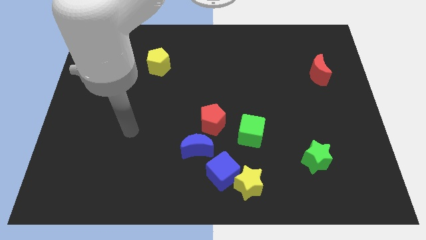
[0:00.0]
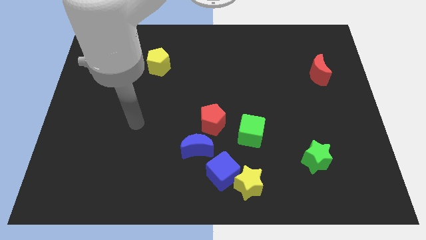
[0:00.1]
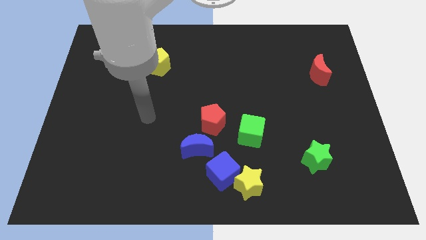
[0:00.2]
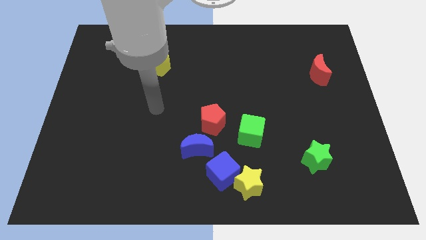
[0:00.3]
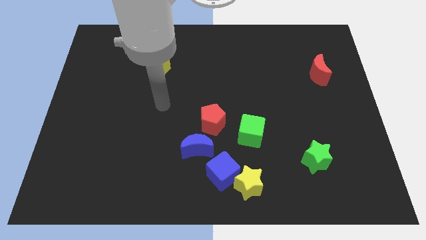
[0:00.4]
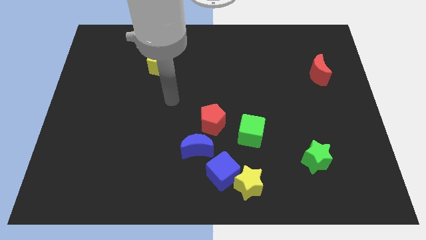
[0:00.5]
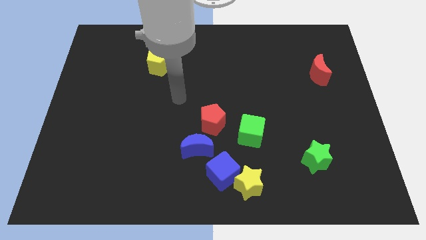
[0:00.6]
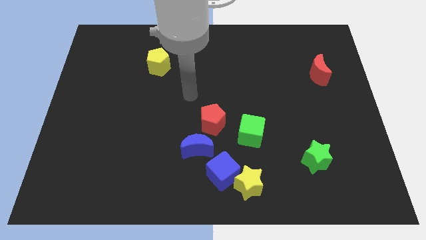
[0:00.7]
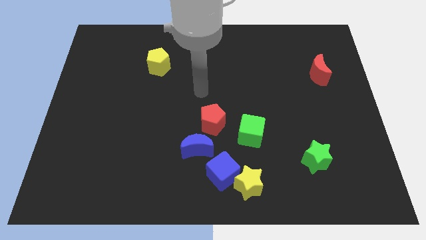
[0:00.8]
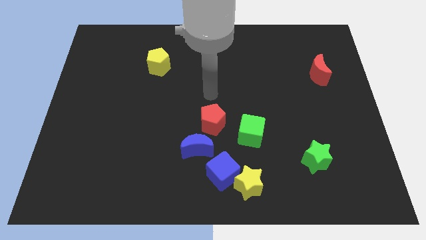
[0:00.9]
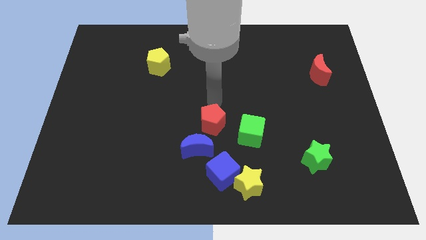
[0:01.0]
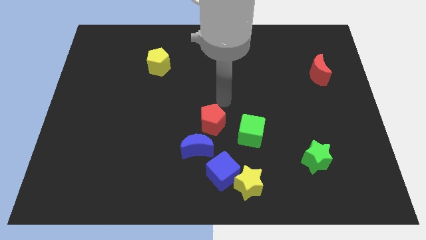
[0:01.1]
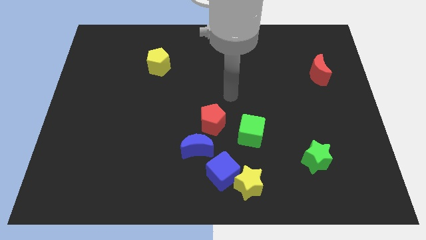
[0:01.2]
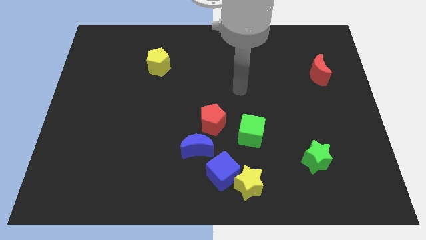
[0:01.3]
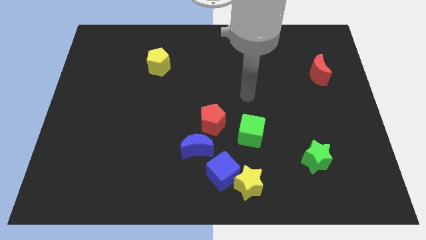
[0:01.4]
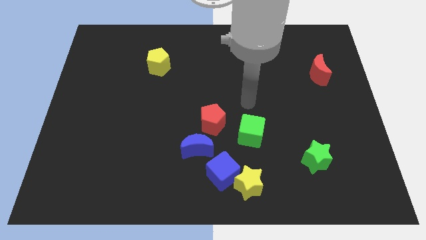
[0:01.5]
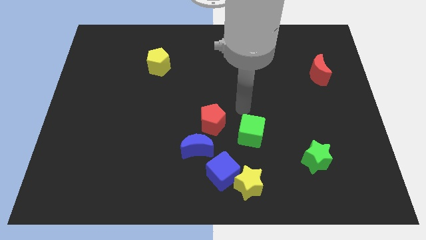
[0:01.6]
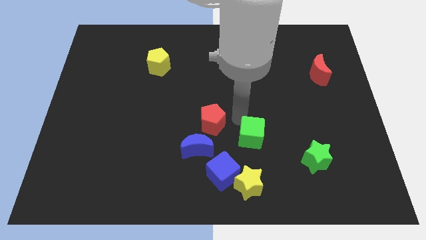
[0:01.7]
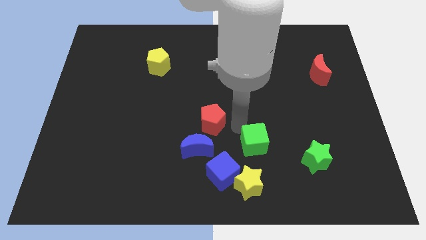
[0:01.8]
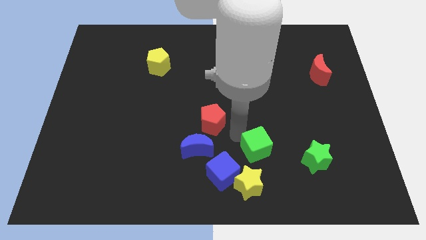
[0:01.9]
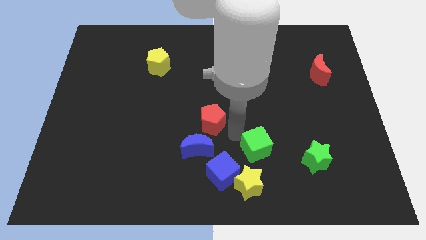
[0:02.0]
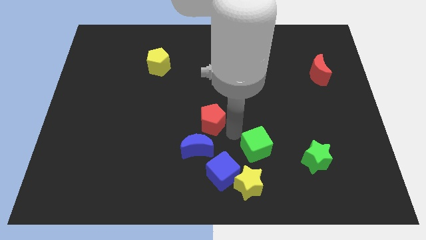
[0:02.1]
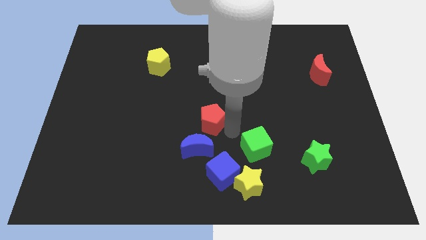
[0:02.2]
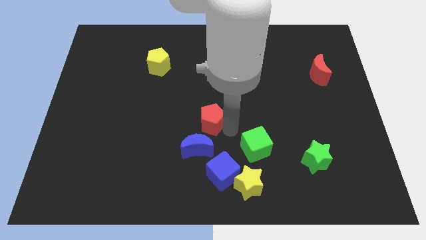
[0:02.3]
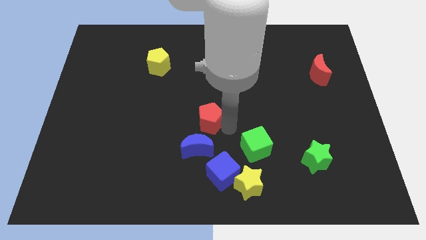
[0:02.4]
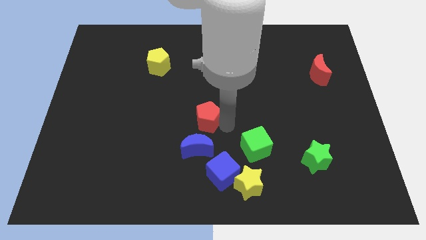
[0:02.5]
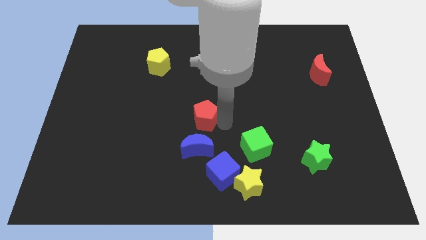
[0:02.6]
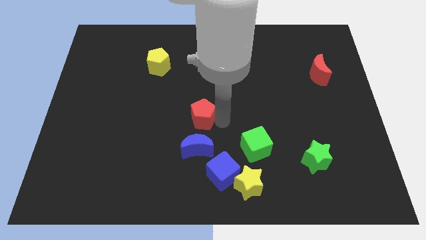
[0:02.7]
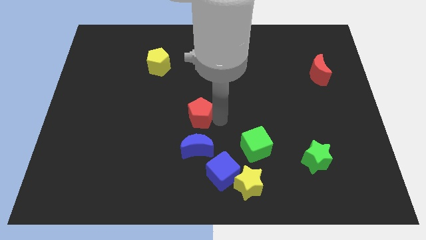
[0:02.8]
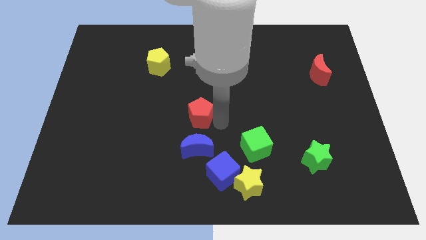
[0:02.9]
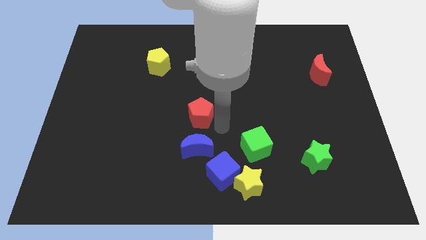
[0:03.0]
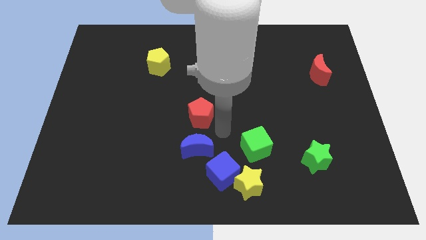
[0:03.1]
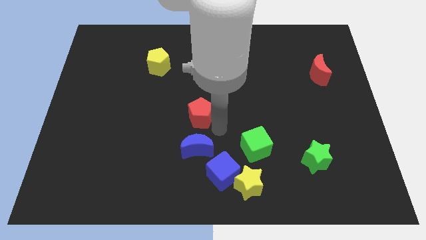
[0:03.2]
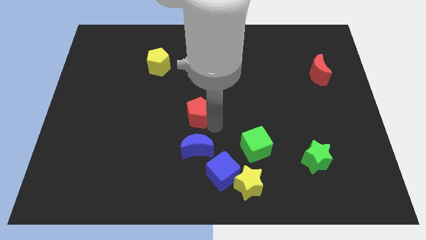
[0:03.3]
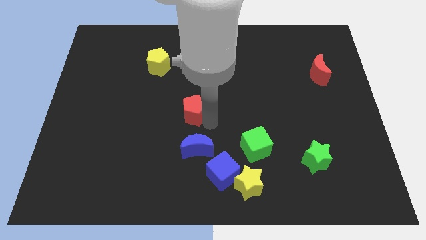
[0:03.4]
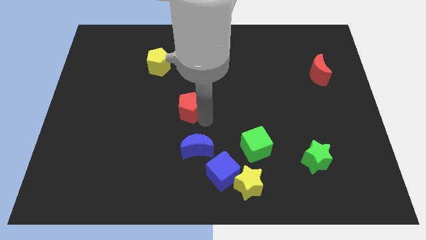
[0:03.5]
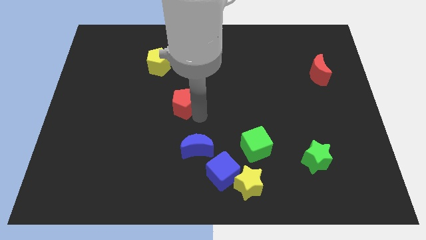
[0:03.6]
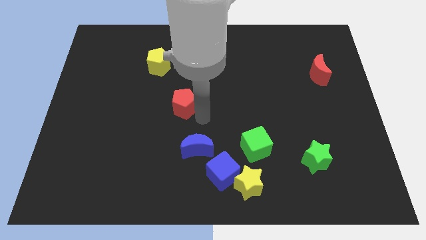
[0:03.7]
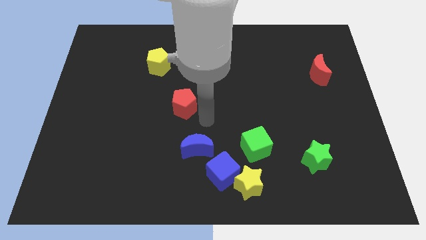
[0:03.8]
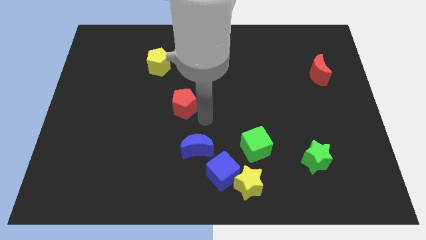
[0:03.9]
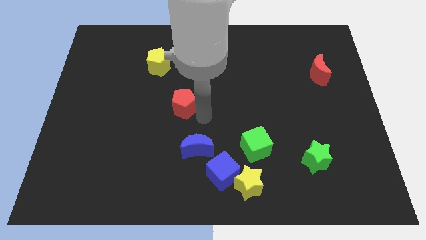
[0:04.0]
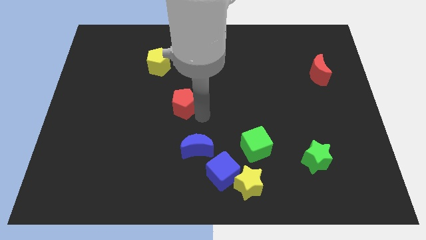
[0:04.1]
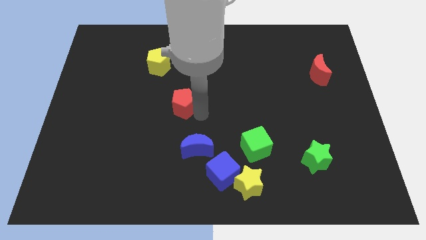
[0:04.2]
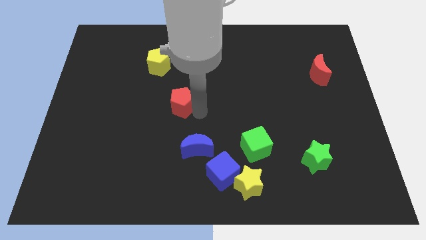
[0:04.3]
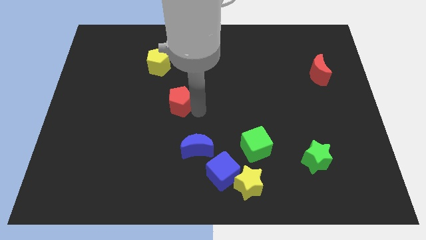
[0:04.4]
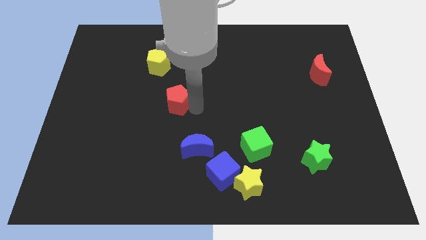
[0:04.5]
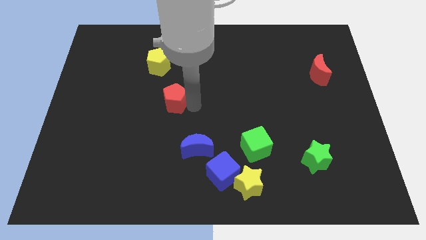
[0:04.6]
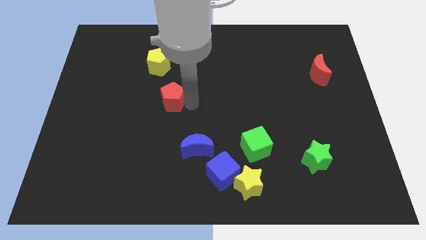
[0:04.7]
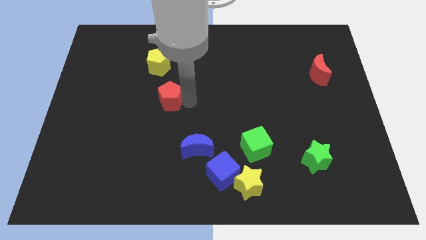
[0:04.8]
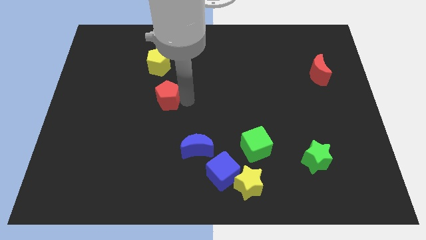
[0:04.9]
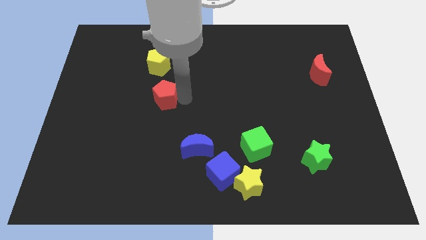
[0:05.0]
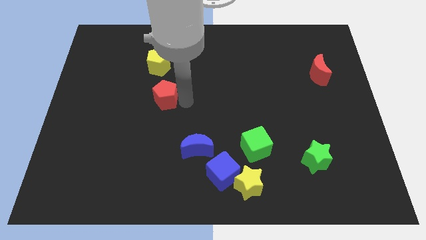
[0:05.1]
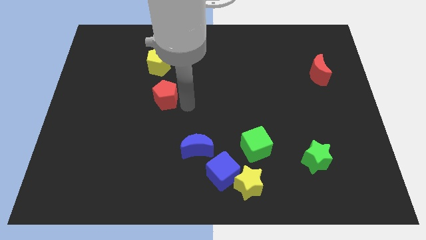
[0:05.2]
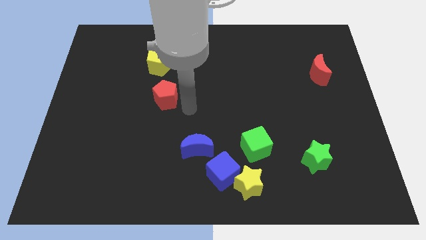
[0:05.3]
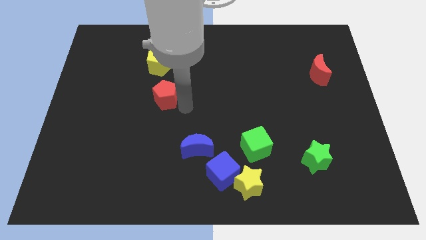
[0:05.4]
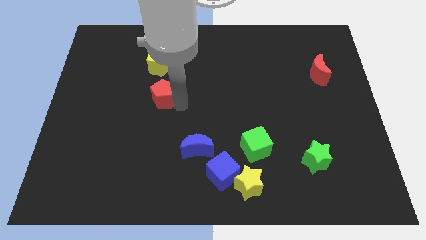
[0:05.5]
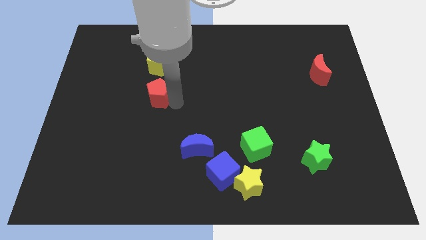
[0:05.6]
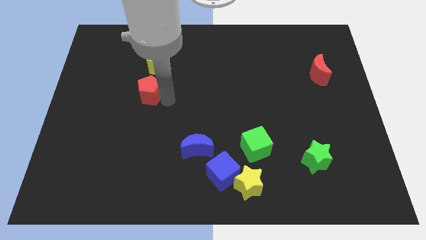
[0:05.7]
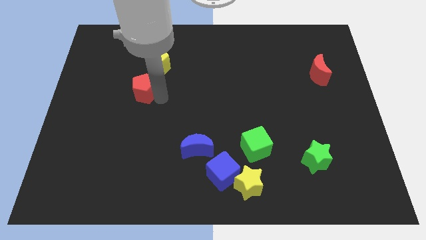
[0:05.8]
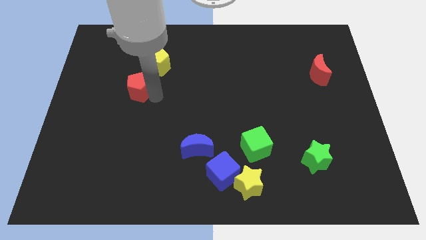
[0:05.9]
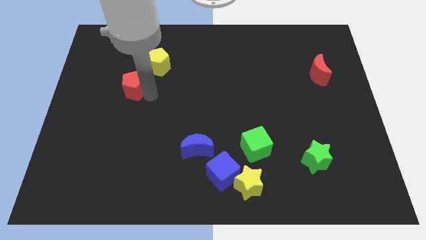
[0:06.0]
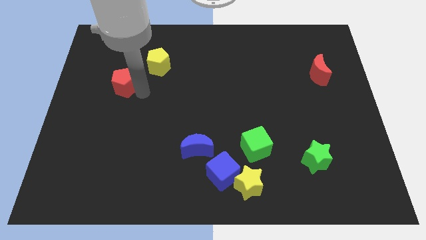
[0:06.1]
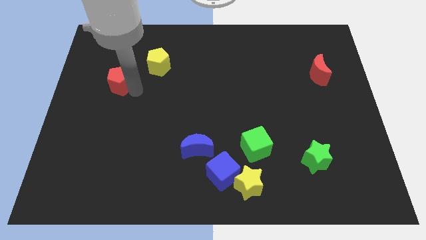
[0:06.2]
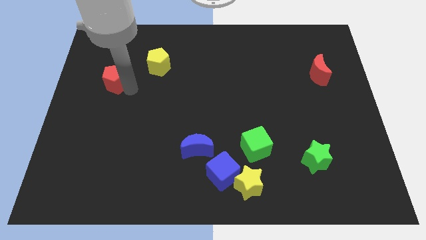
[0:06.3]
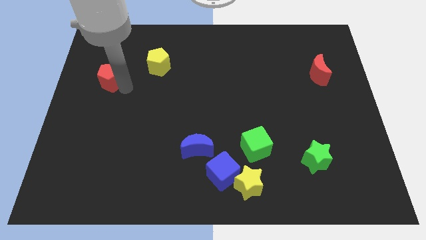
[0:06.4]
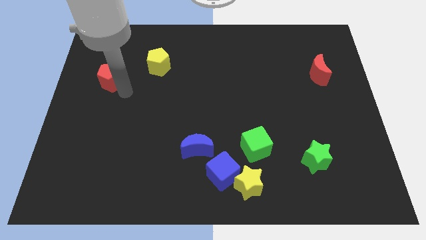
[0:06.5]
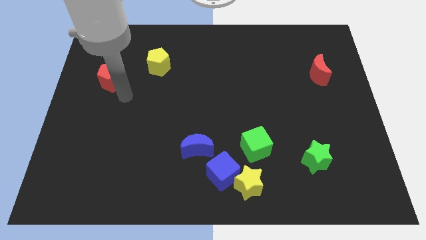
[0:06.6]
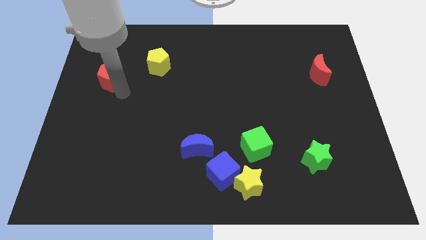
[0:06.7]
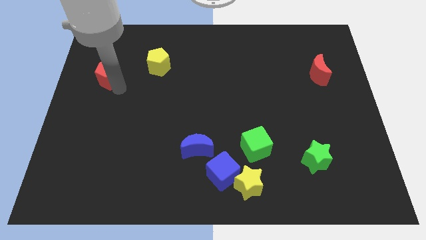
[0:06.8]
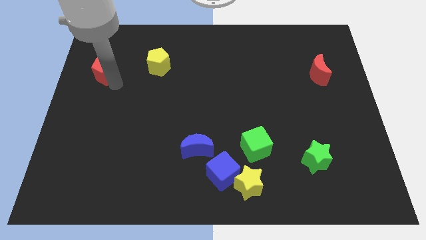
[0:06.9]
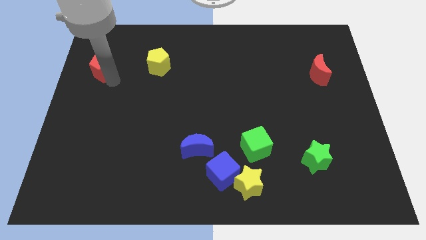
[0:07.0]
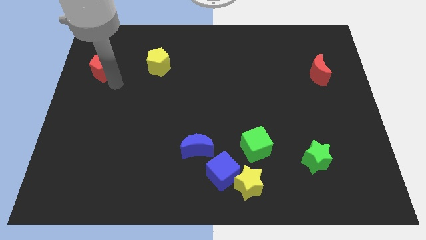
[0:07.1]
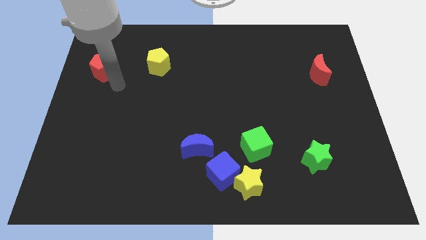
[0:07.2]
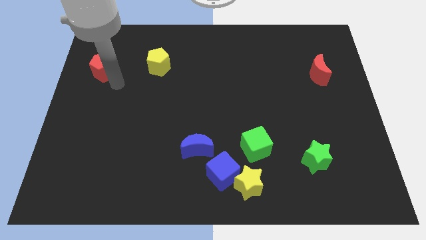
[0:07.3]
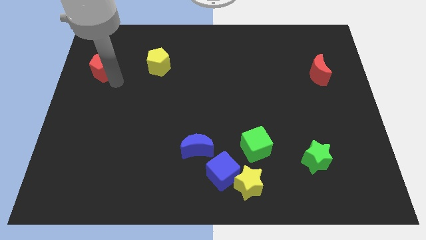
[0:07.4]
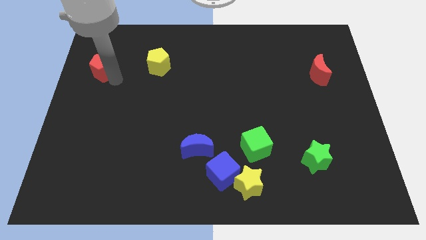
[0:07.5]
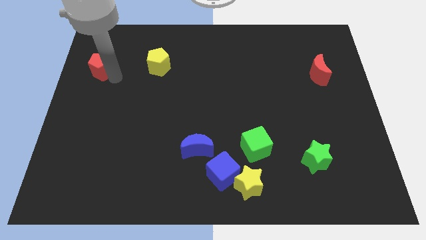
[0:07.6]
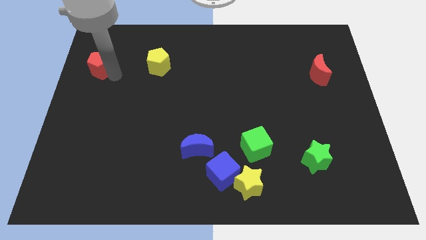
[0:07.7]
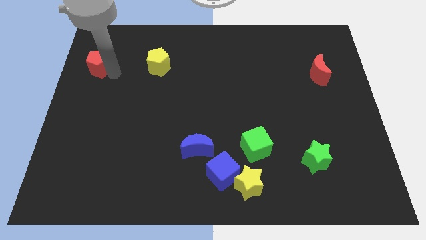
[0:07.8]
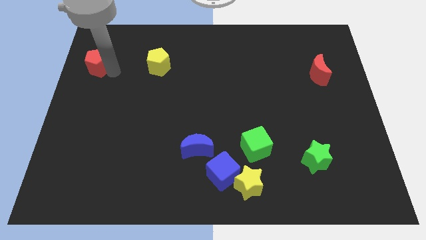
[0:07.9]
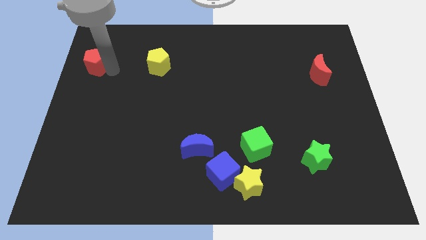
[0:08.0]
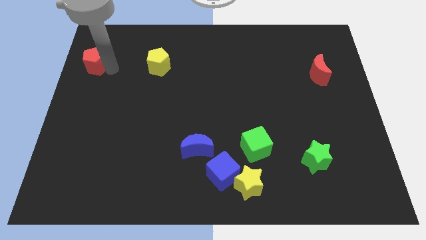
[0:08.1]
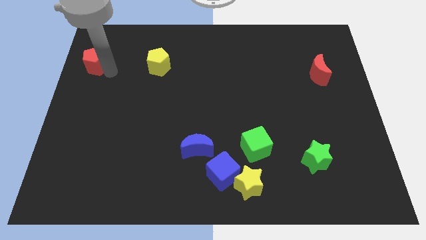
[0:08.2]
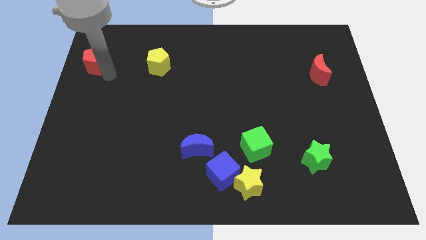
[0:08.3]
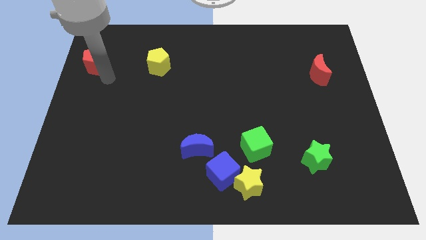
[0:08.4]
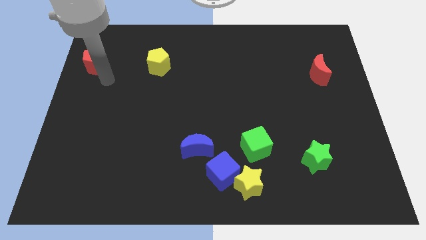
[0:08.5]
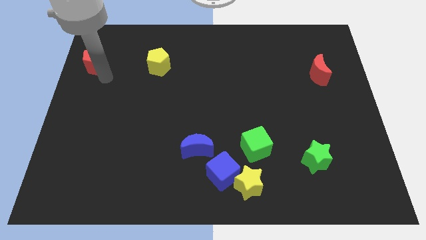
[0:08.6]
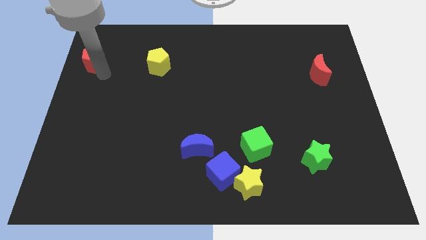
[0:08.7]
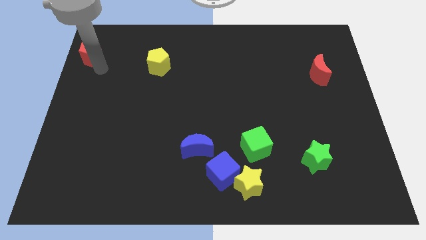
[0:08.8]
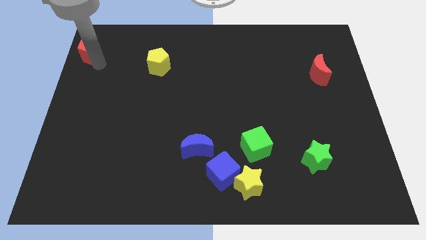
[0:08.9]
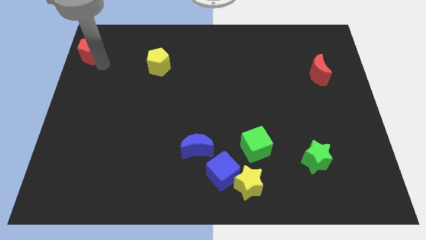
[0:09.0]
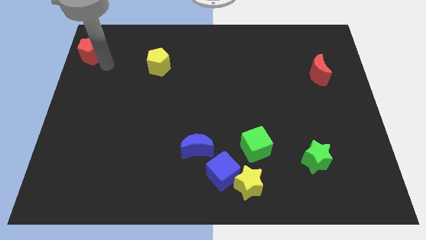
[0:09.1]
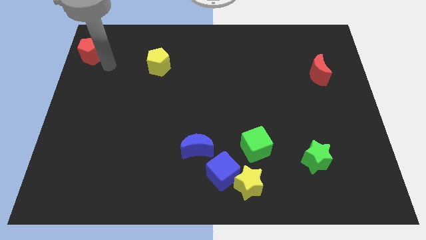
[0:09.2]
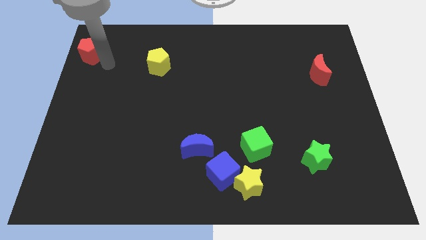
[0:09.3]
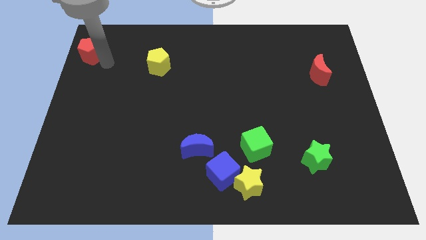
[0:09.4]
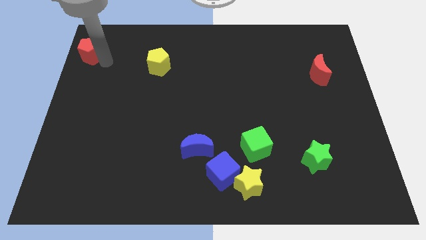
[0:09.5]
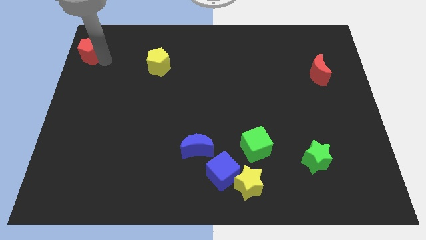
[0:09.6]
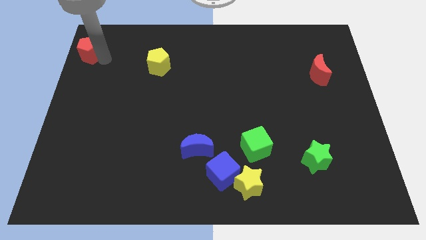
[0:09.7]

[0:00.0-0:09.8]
slide the red pentagon to the upper left corner
